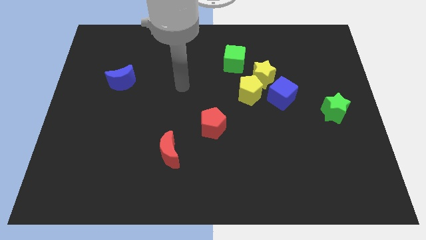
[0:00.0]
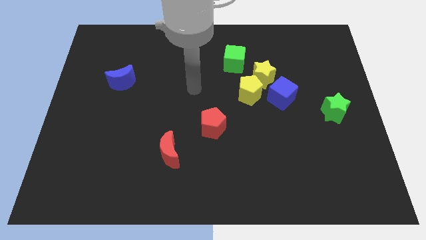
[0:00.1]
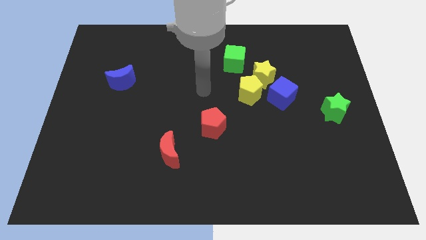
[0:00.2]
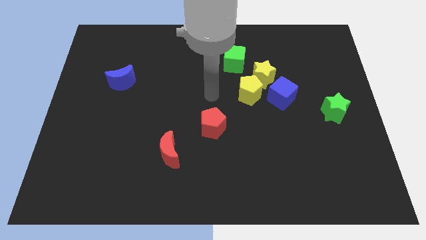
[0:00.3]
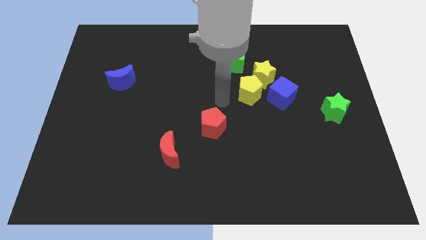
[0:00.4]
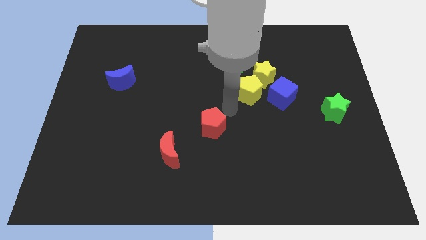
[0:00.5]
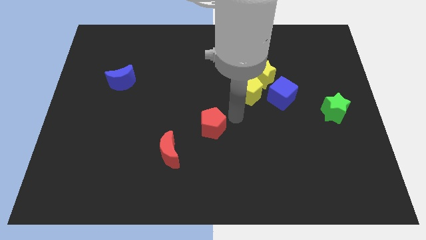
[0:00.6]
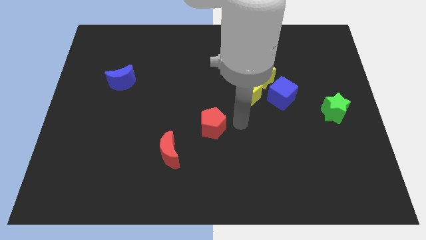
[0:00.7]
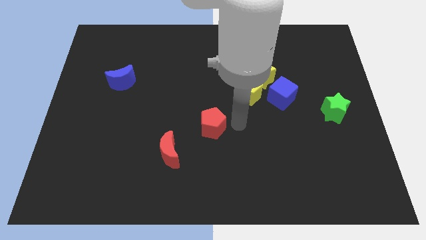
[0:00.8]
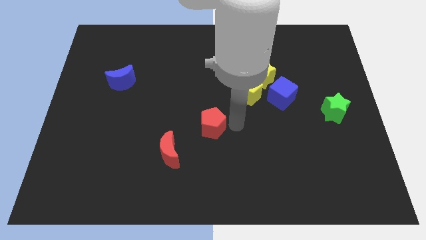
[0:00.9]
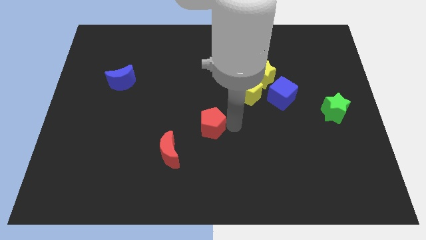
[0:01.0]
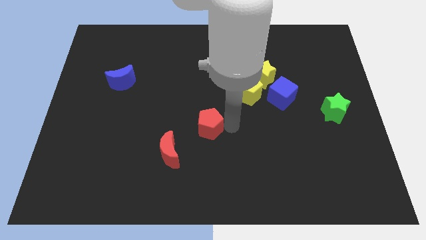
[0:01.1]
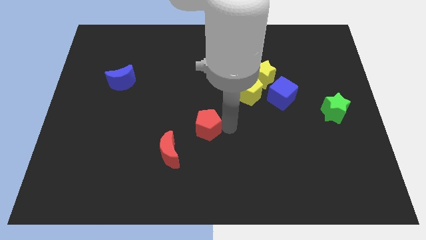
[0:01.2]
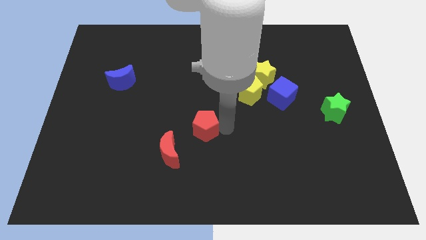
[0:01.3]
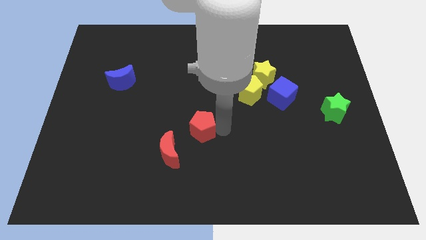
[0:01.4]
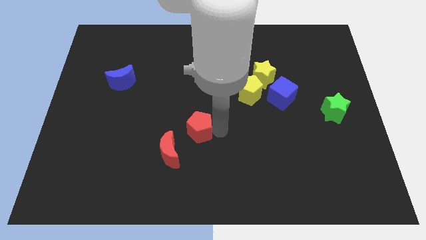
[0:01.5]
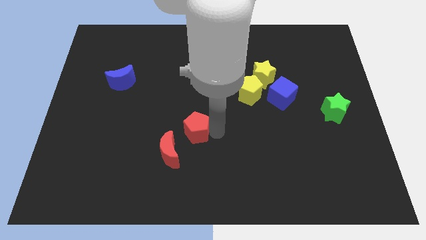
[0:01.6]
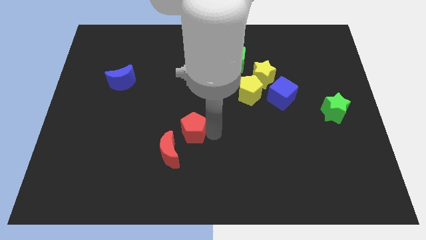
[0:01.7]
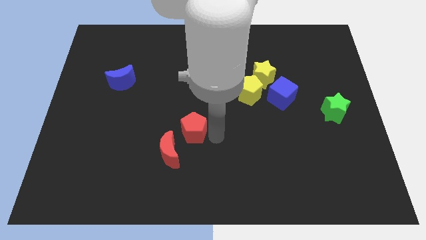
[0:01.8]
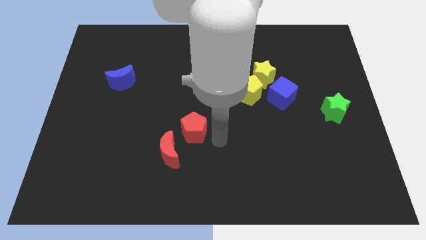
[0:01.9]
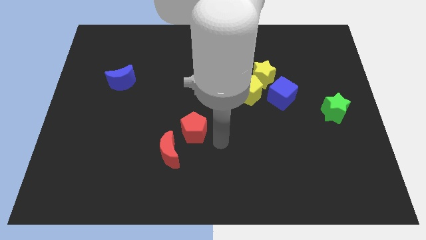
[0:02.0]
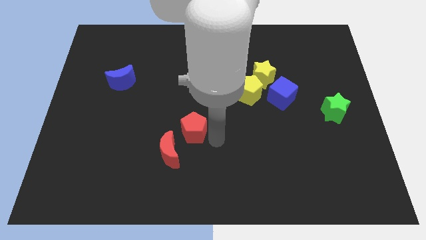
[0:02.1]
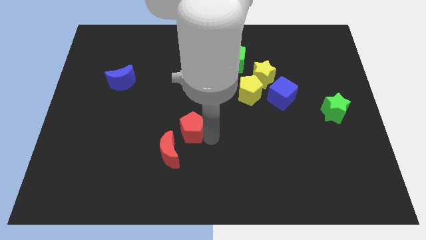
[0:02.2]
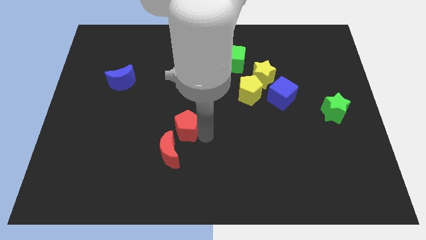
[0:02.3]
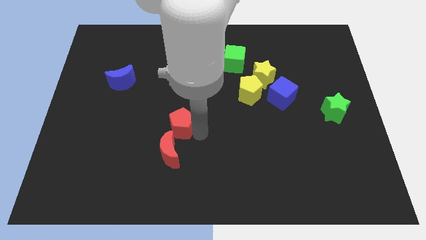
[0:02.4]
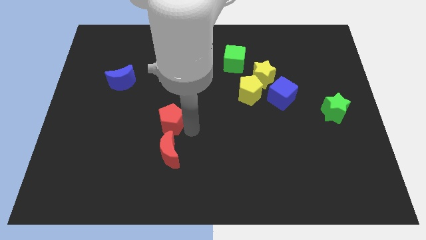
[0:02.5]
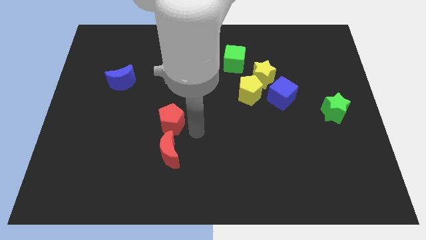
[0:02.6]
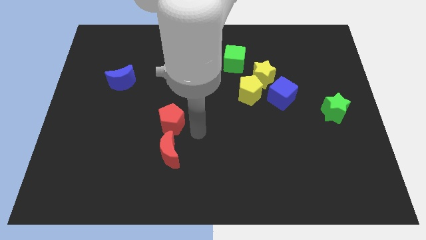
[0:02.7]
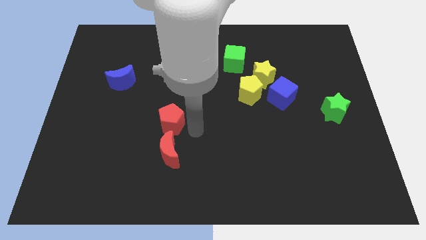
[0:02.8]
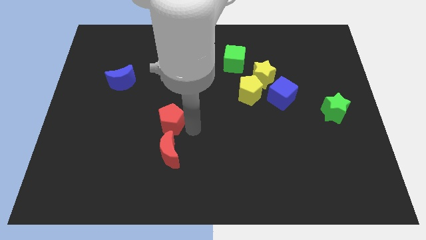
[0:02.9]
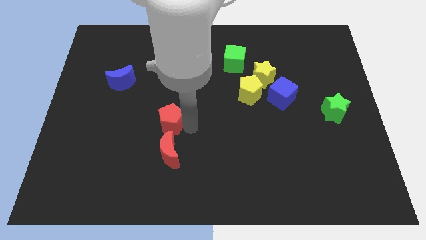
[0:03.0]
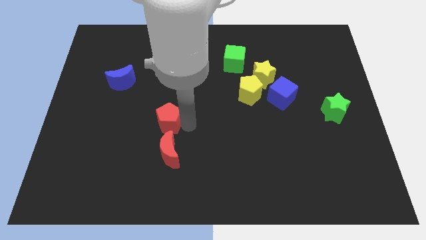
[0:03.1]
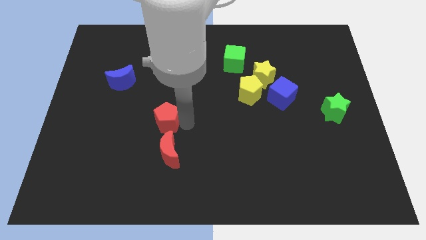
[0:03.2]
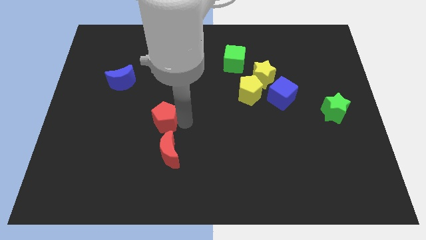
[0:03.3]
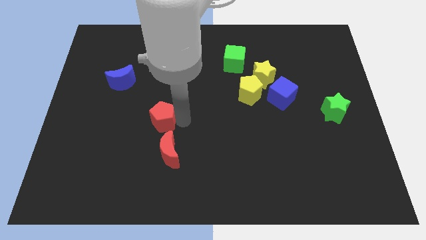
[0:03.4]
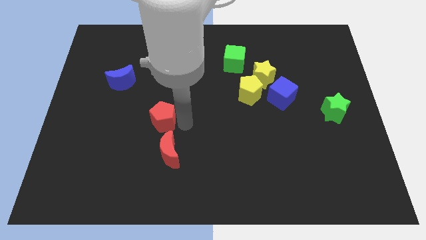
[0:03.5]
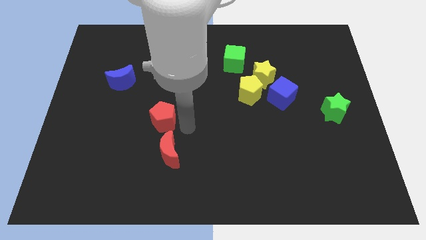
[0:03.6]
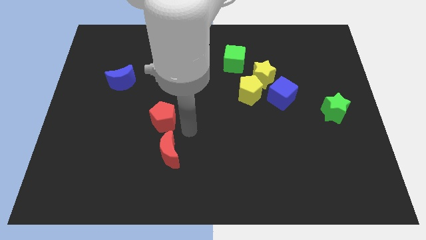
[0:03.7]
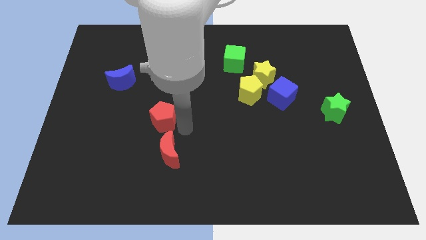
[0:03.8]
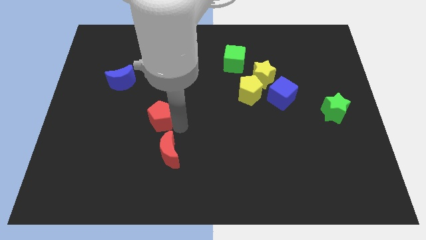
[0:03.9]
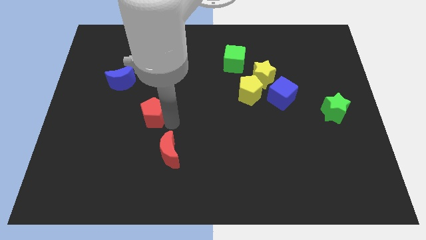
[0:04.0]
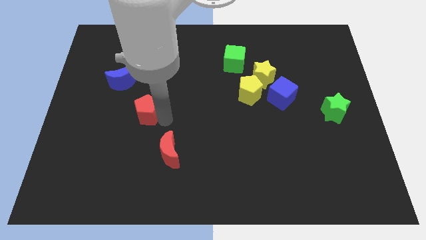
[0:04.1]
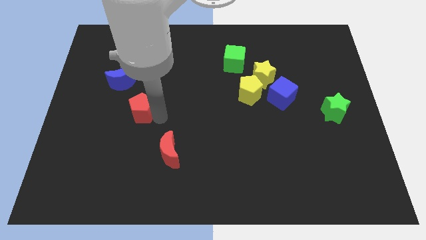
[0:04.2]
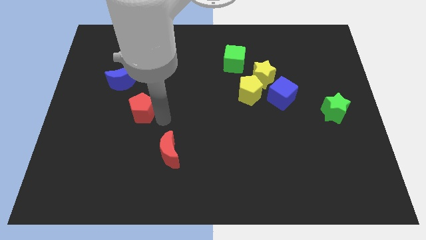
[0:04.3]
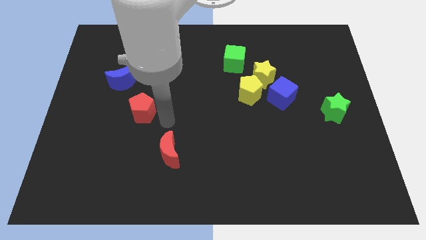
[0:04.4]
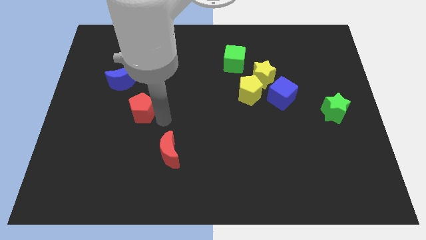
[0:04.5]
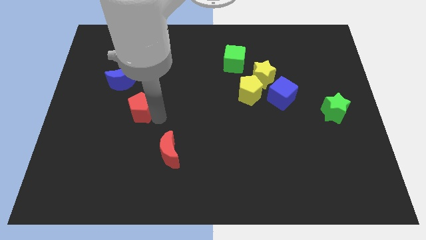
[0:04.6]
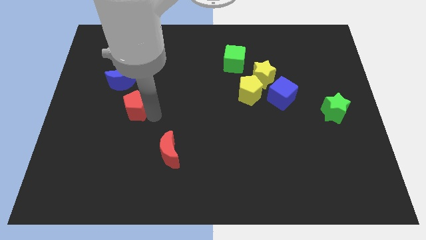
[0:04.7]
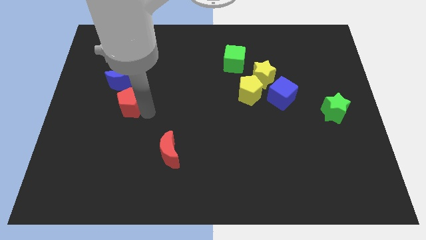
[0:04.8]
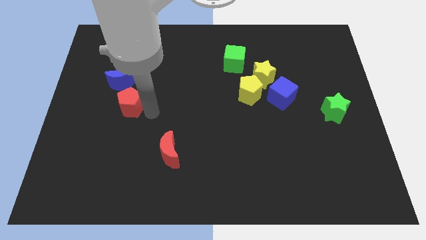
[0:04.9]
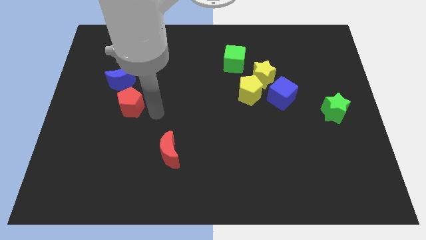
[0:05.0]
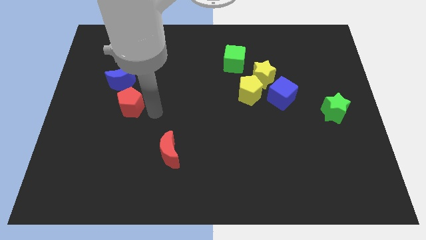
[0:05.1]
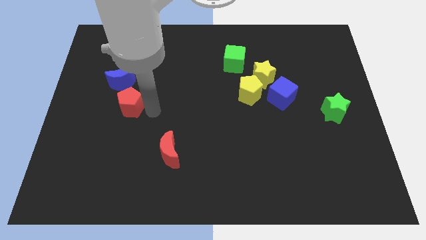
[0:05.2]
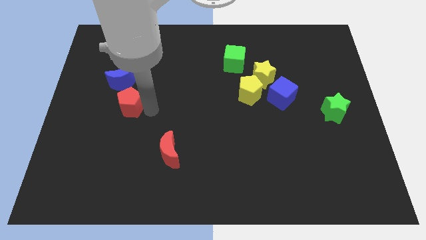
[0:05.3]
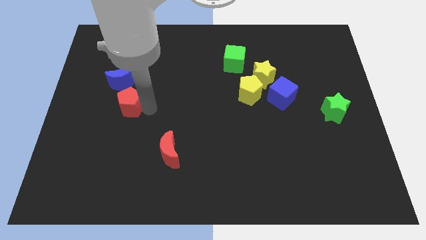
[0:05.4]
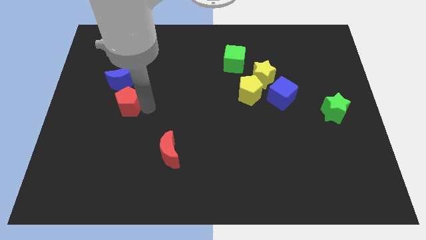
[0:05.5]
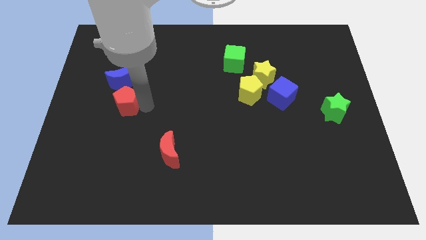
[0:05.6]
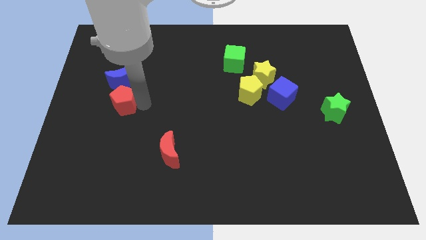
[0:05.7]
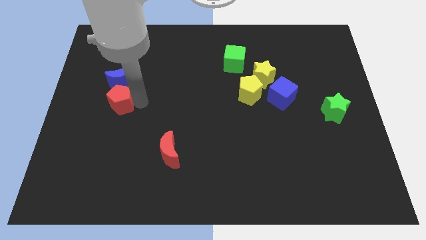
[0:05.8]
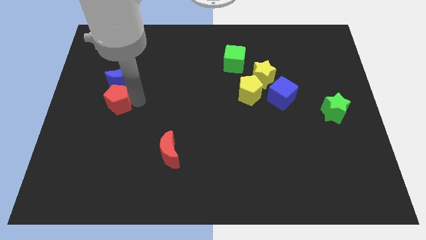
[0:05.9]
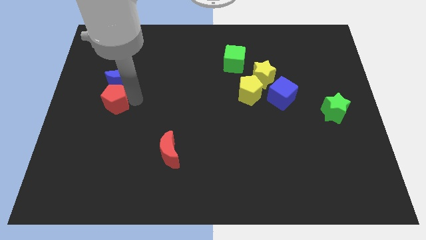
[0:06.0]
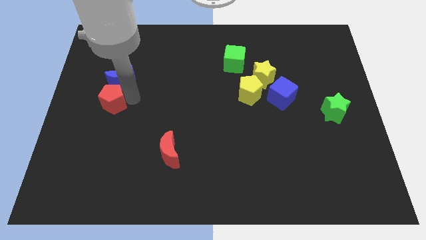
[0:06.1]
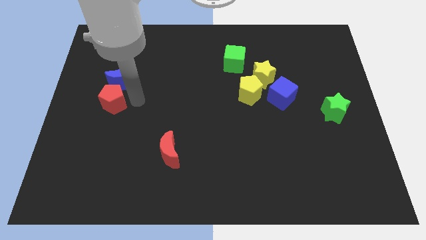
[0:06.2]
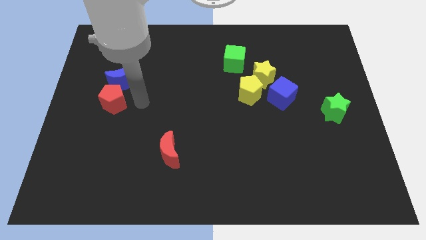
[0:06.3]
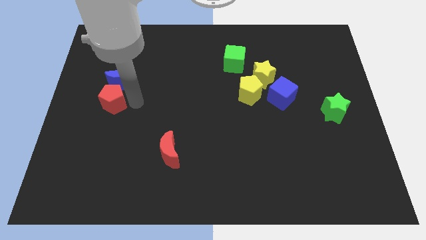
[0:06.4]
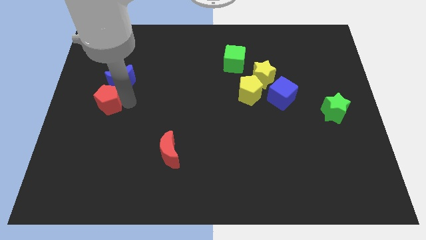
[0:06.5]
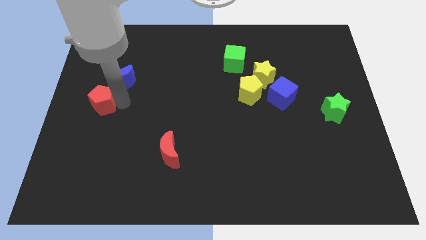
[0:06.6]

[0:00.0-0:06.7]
put the red pentagon to the left side
